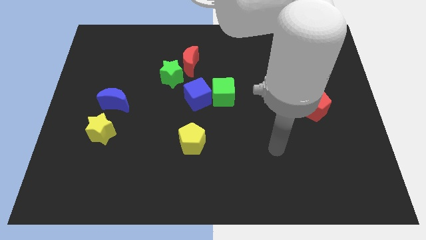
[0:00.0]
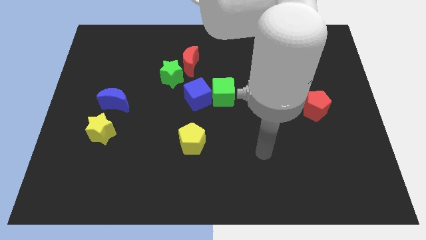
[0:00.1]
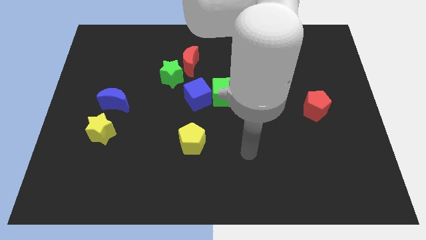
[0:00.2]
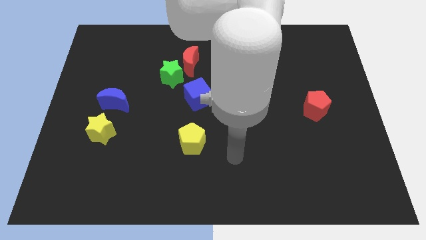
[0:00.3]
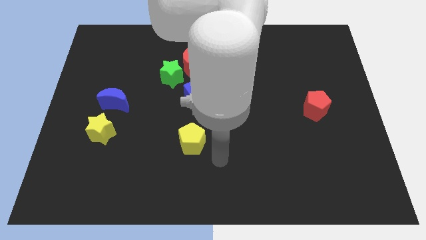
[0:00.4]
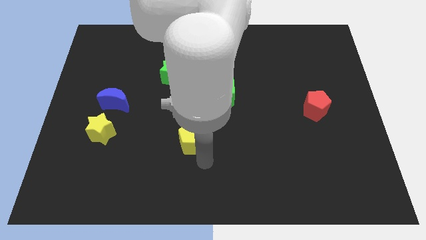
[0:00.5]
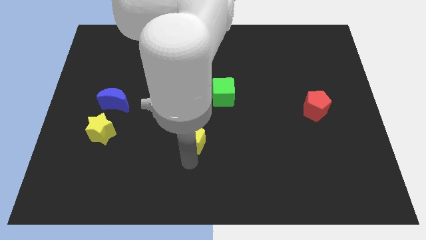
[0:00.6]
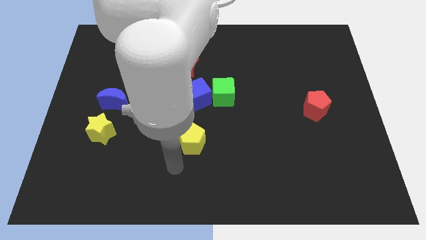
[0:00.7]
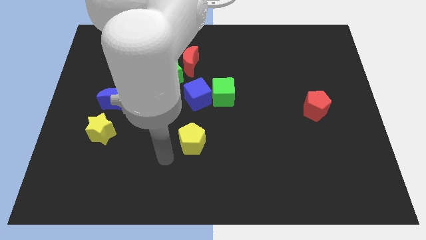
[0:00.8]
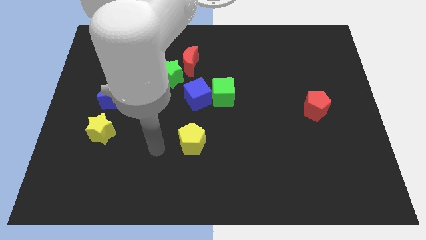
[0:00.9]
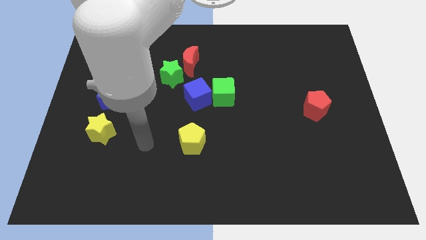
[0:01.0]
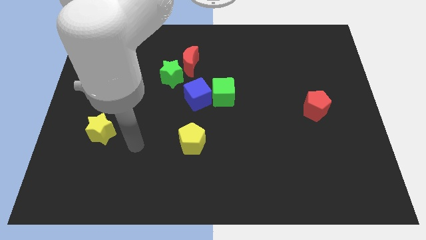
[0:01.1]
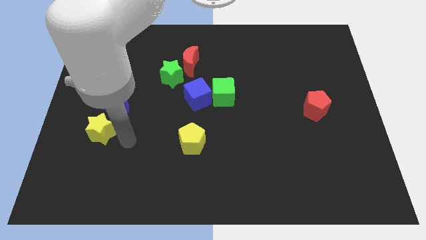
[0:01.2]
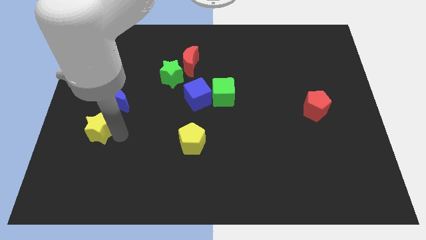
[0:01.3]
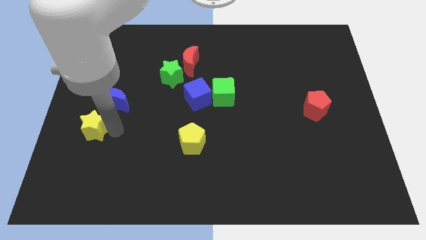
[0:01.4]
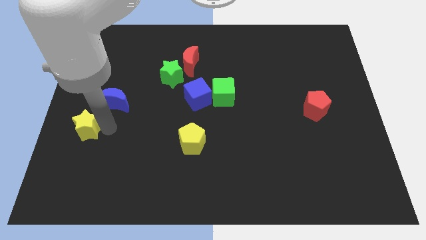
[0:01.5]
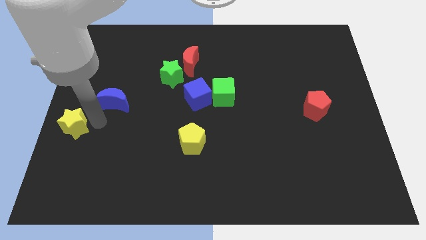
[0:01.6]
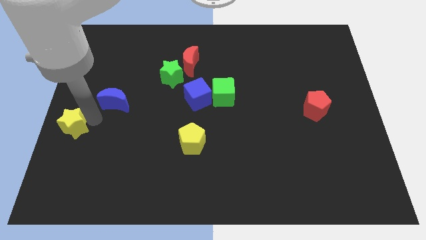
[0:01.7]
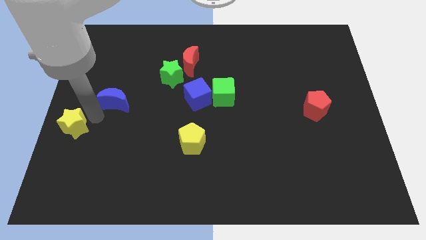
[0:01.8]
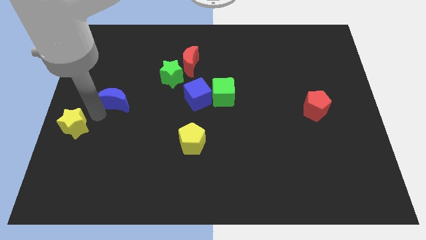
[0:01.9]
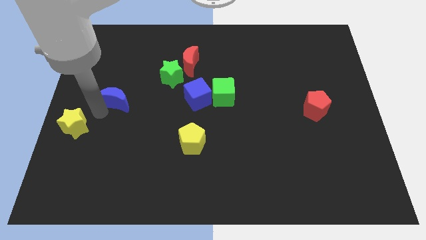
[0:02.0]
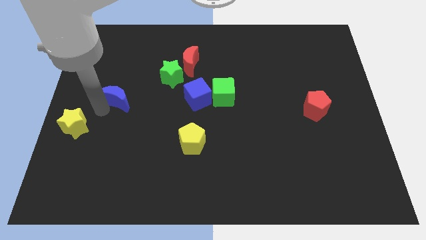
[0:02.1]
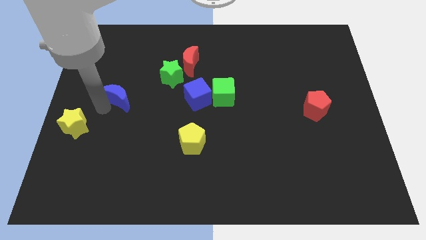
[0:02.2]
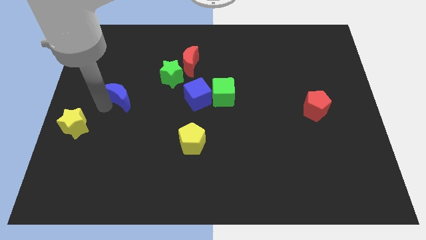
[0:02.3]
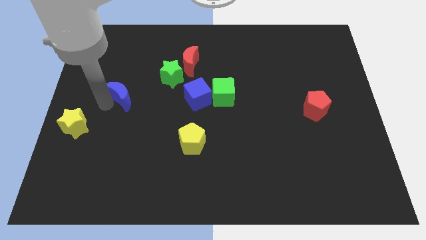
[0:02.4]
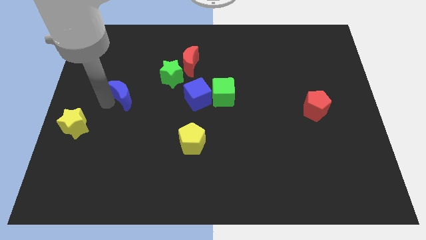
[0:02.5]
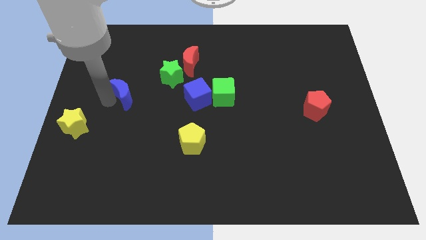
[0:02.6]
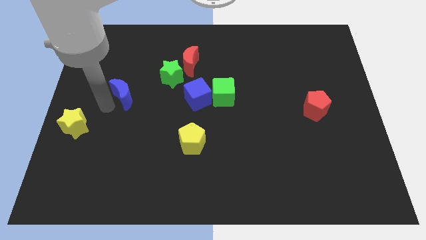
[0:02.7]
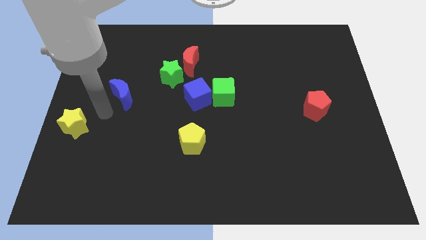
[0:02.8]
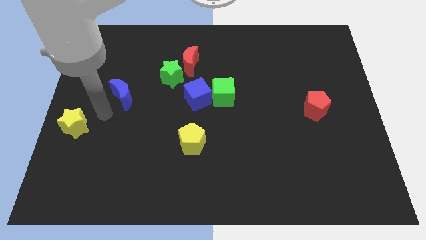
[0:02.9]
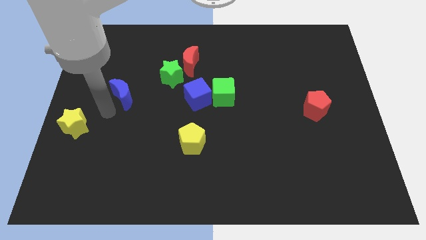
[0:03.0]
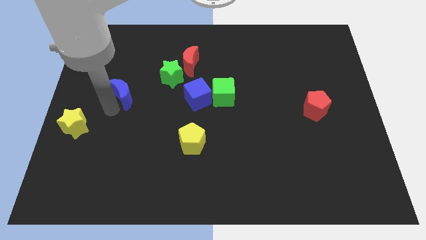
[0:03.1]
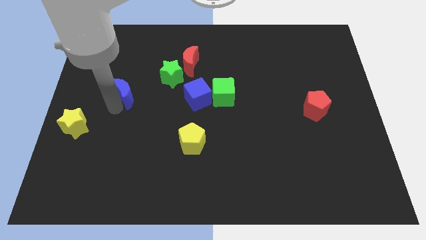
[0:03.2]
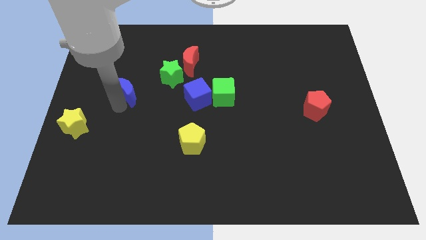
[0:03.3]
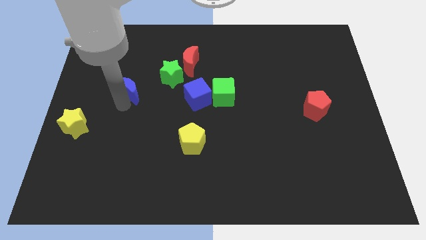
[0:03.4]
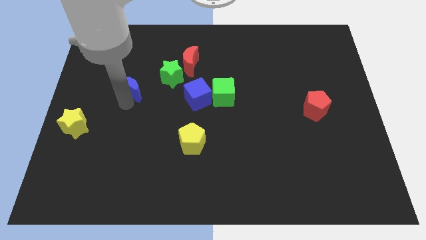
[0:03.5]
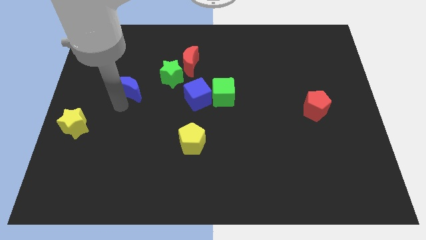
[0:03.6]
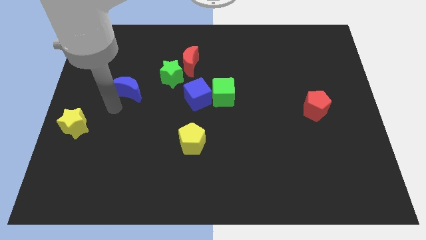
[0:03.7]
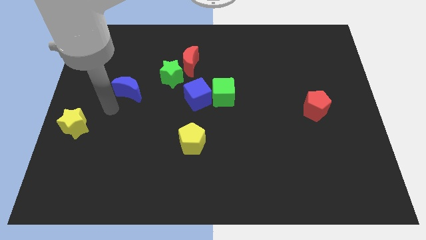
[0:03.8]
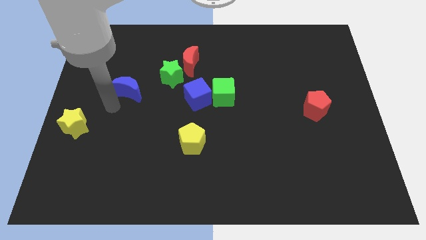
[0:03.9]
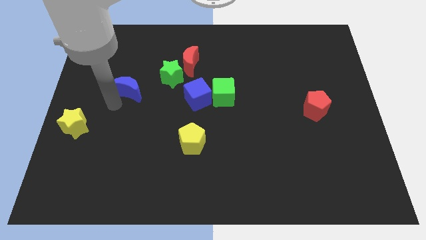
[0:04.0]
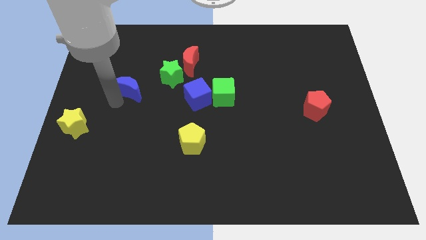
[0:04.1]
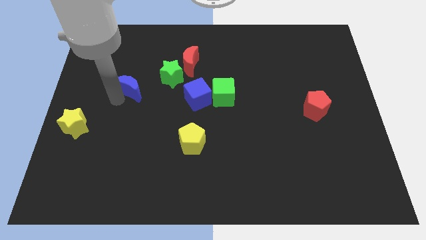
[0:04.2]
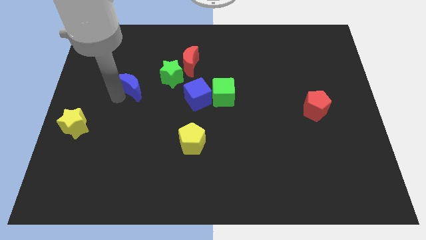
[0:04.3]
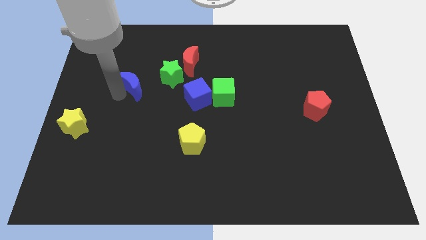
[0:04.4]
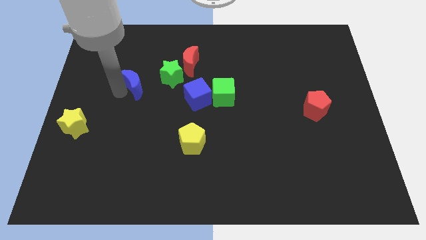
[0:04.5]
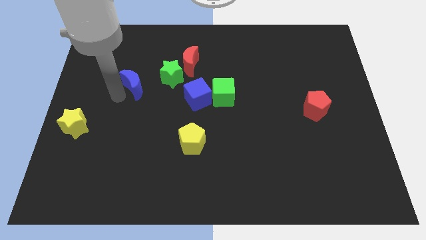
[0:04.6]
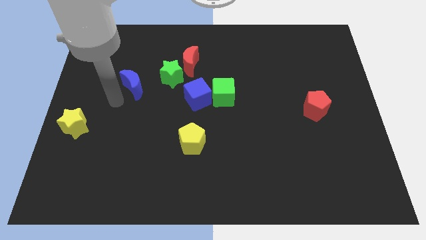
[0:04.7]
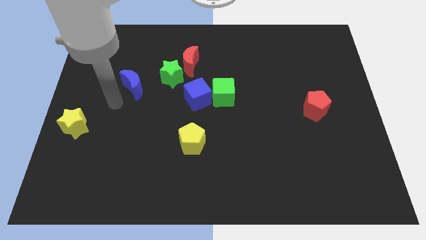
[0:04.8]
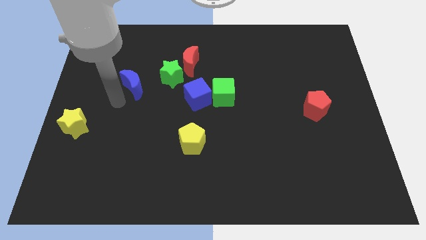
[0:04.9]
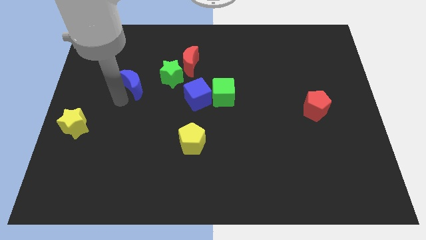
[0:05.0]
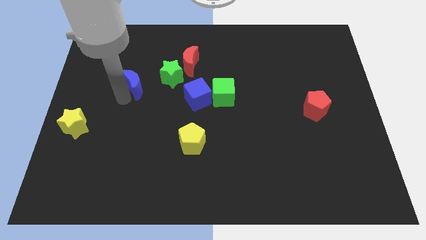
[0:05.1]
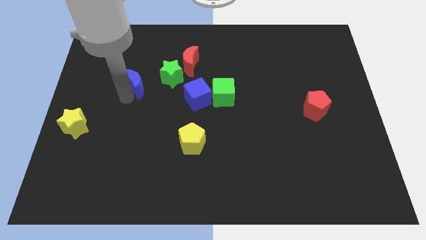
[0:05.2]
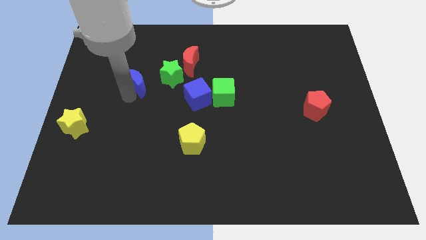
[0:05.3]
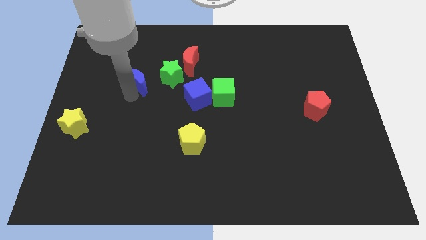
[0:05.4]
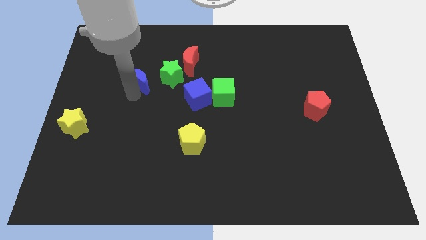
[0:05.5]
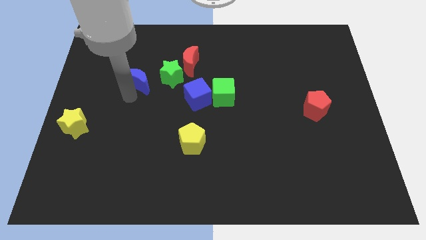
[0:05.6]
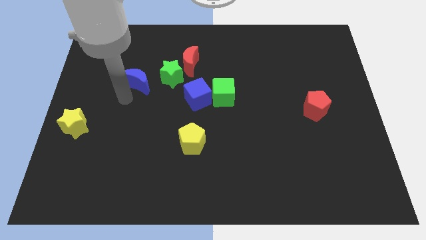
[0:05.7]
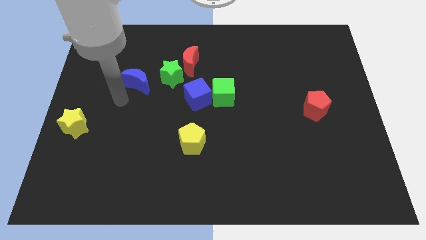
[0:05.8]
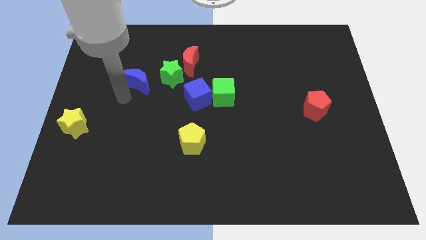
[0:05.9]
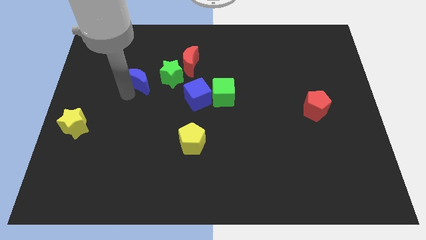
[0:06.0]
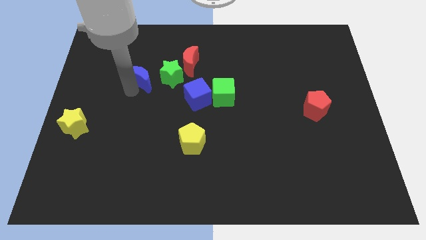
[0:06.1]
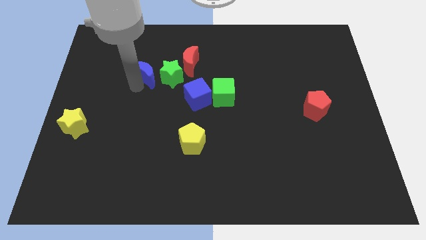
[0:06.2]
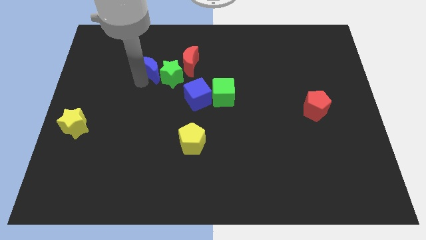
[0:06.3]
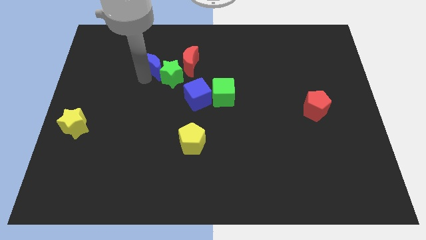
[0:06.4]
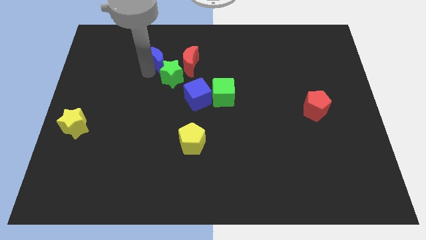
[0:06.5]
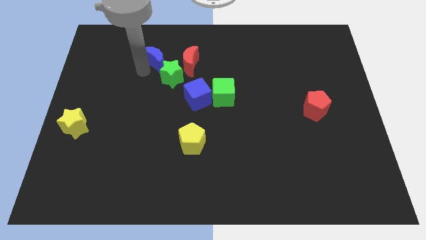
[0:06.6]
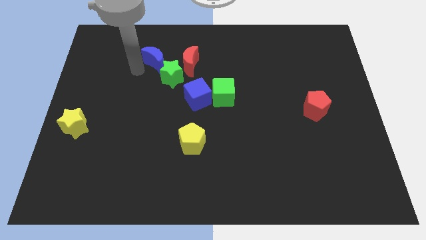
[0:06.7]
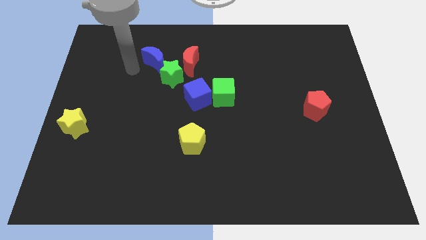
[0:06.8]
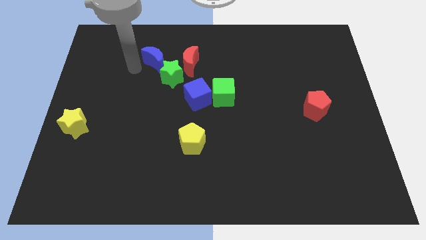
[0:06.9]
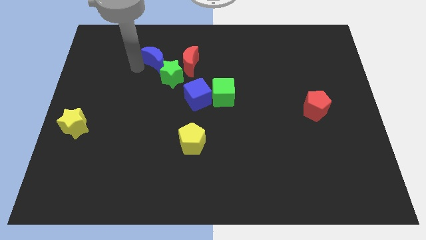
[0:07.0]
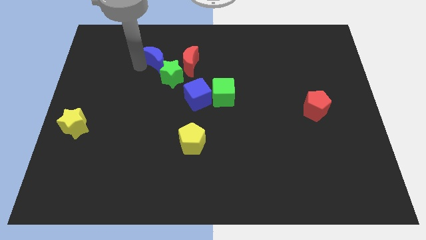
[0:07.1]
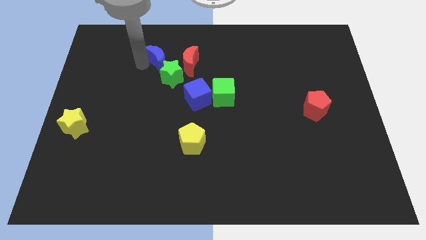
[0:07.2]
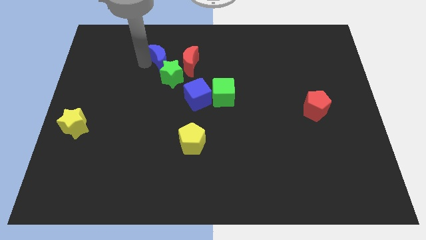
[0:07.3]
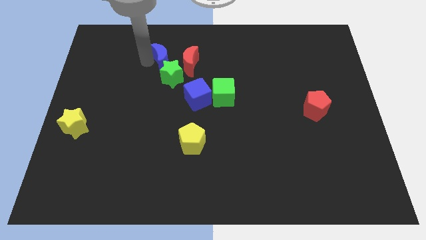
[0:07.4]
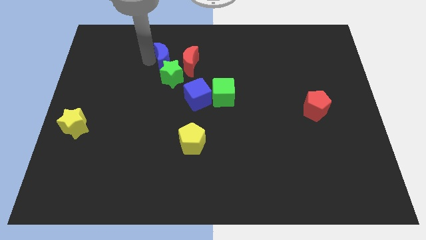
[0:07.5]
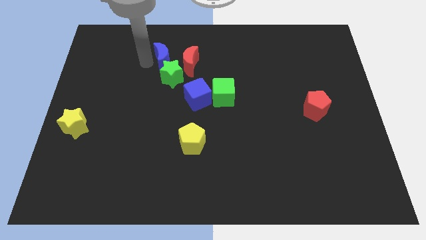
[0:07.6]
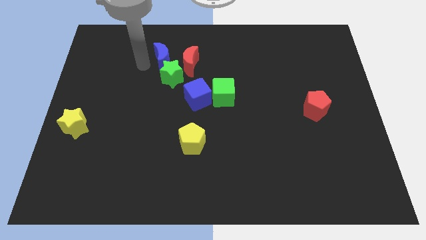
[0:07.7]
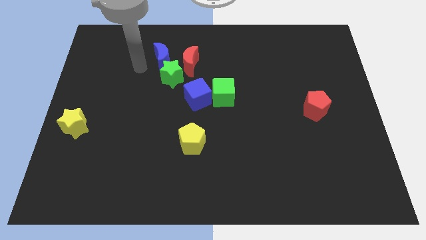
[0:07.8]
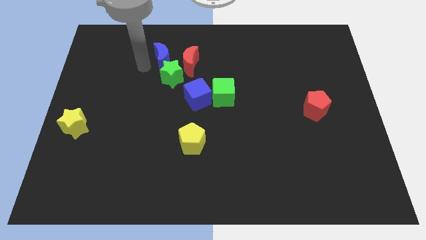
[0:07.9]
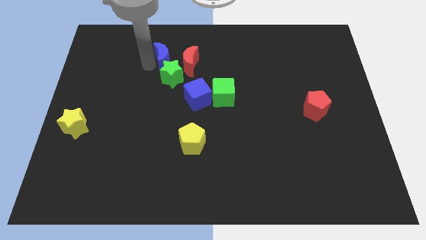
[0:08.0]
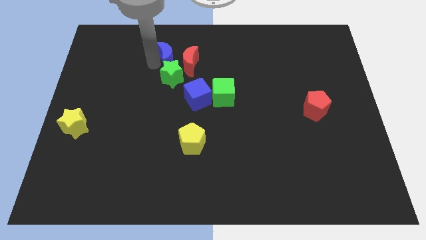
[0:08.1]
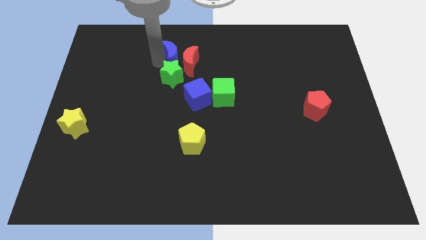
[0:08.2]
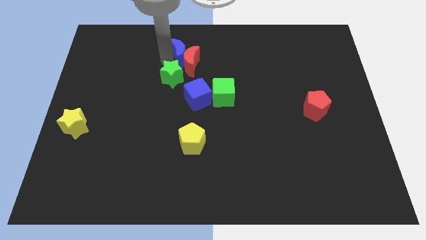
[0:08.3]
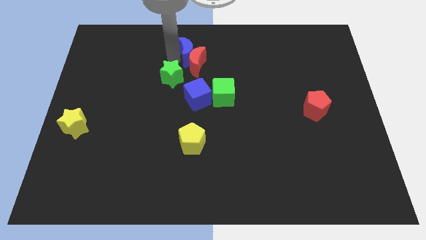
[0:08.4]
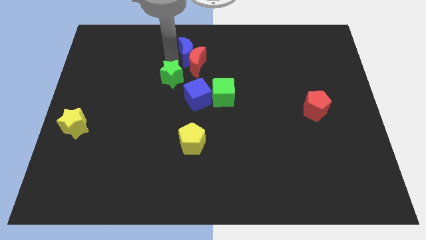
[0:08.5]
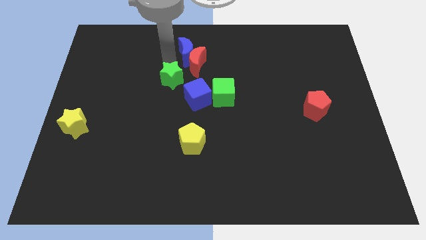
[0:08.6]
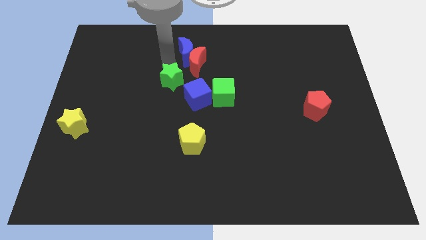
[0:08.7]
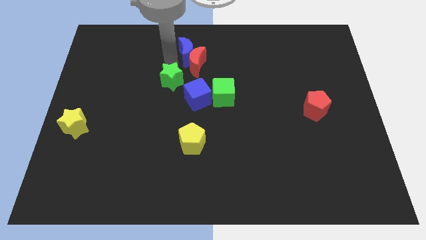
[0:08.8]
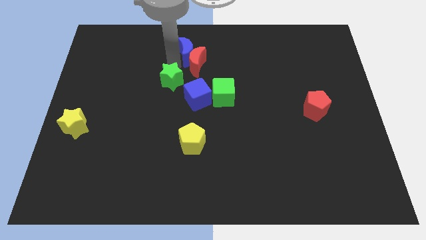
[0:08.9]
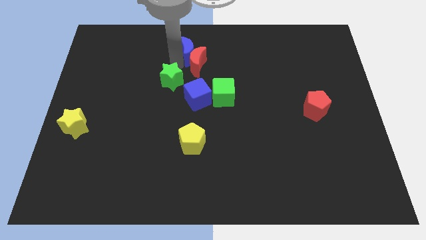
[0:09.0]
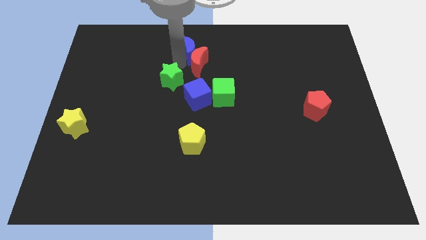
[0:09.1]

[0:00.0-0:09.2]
push the blue moon to the top side
